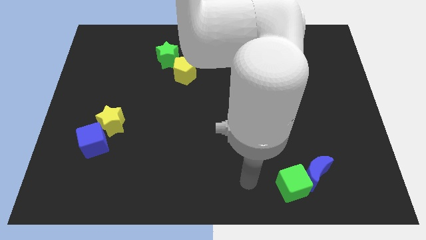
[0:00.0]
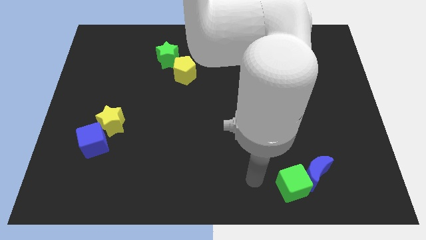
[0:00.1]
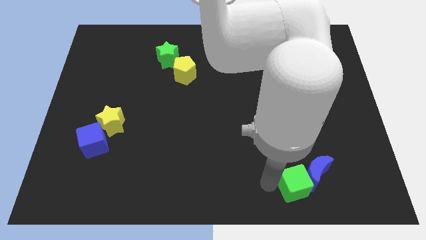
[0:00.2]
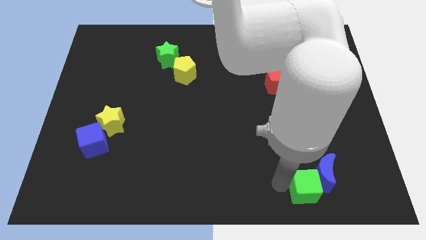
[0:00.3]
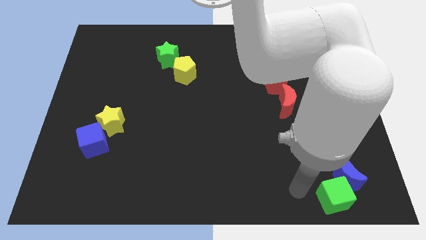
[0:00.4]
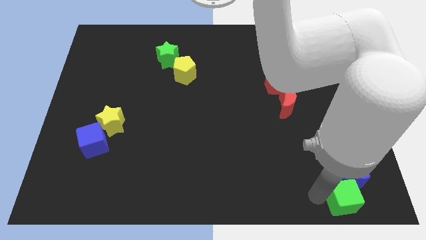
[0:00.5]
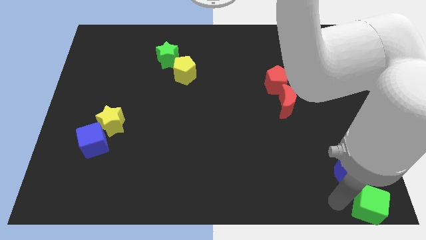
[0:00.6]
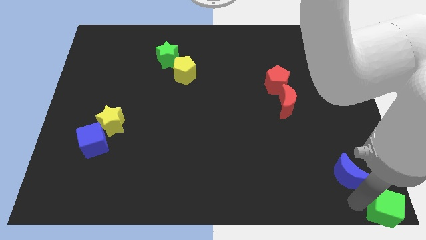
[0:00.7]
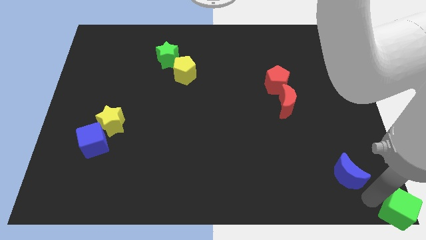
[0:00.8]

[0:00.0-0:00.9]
pull the blue moon apart from the green cube

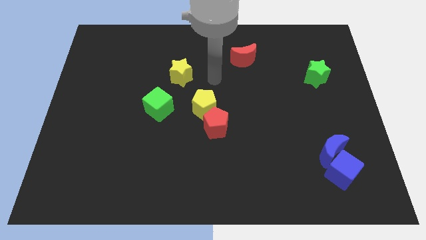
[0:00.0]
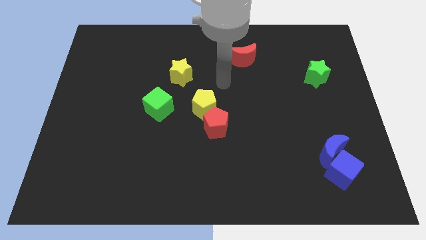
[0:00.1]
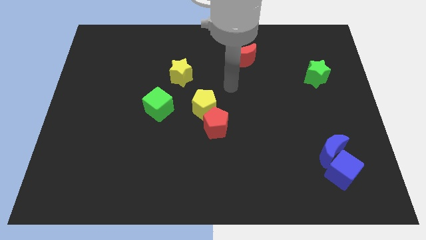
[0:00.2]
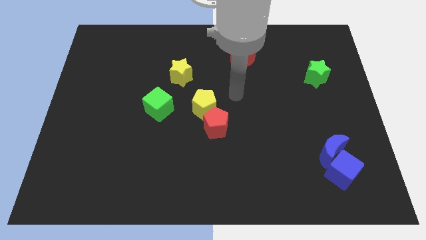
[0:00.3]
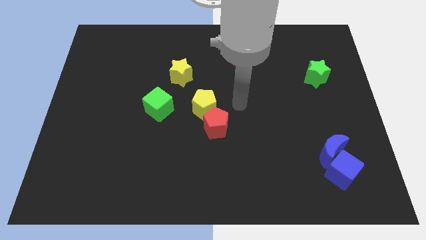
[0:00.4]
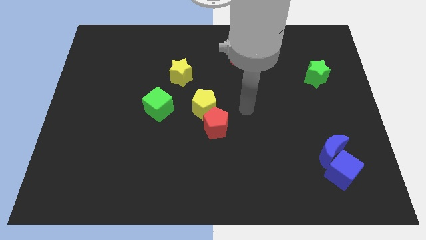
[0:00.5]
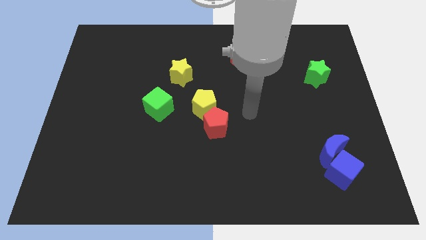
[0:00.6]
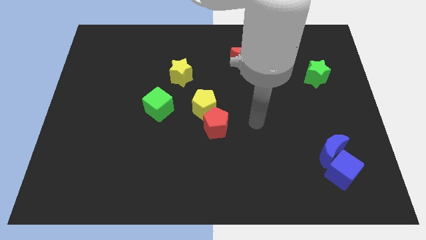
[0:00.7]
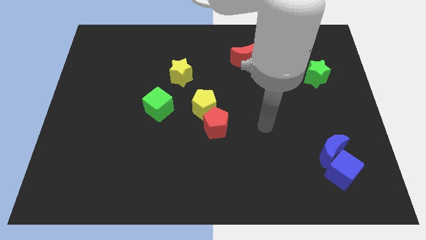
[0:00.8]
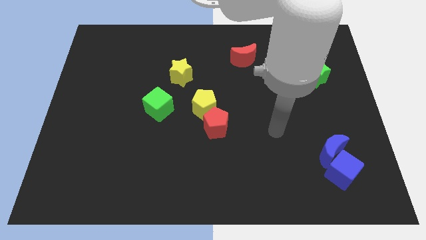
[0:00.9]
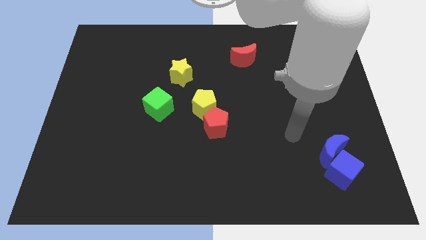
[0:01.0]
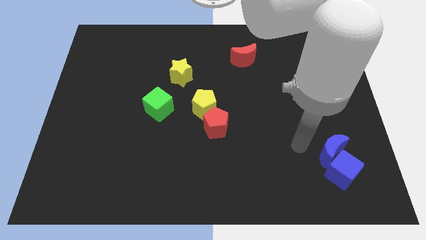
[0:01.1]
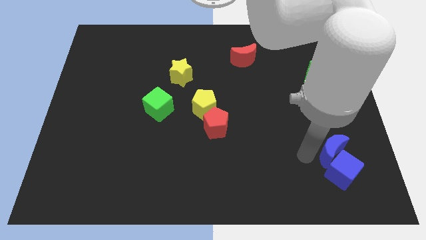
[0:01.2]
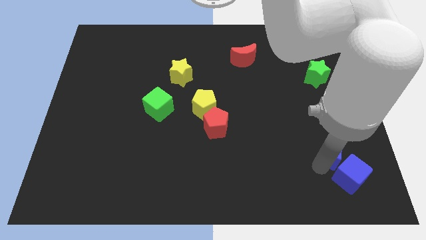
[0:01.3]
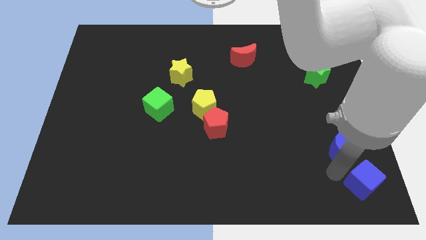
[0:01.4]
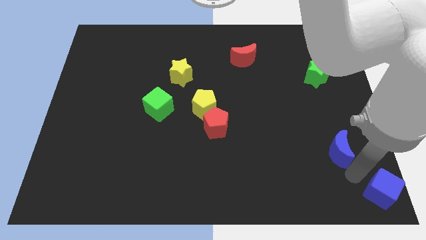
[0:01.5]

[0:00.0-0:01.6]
pull the blue moon apart from the blue cube

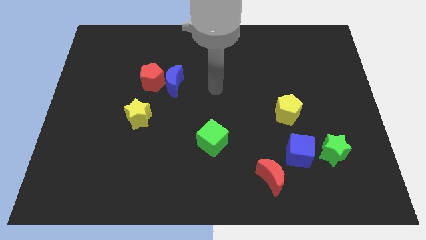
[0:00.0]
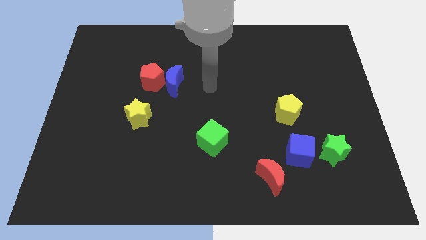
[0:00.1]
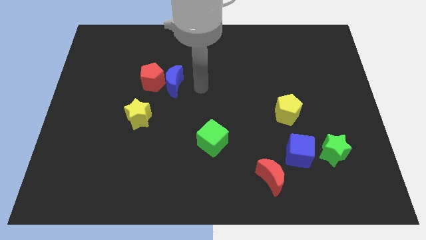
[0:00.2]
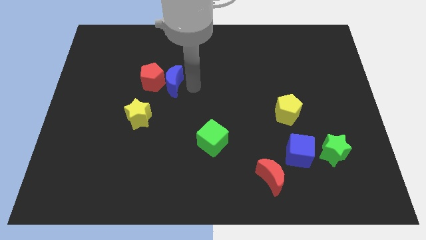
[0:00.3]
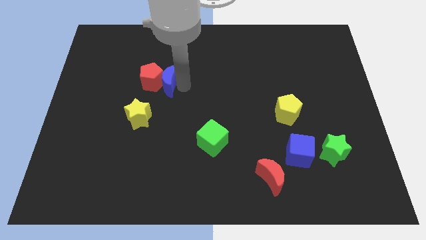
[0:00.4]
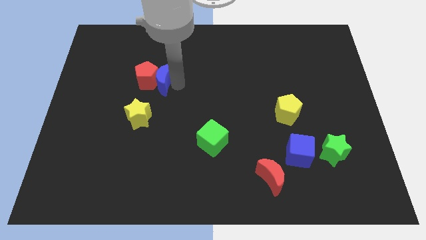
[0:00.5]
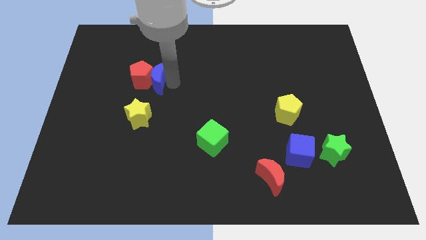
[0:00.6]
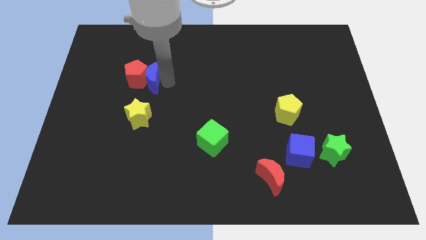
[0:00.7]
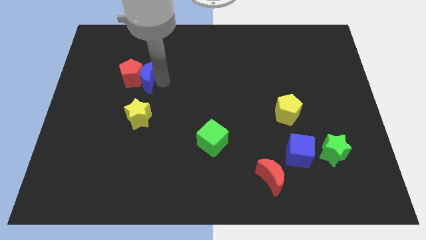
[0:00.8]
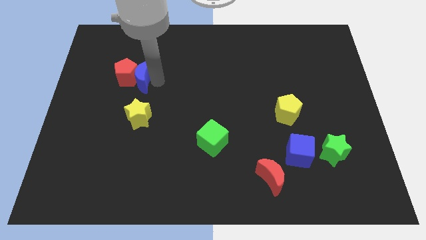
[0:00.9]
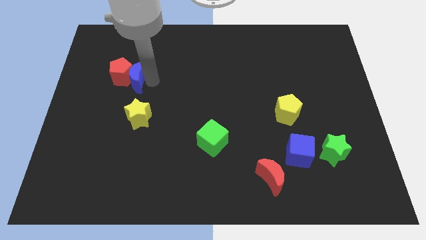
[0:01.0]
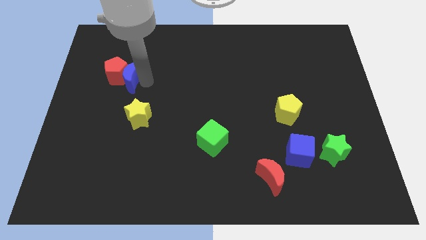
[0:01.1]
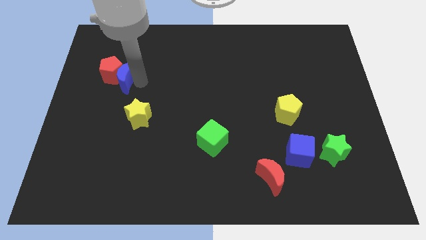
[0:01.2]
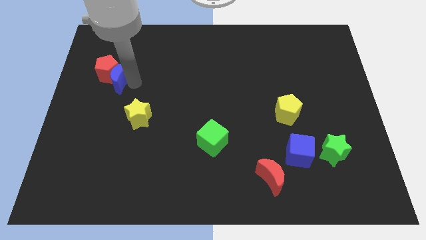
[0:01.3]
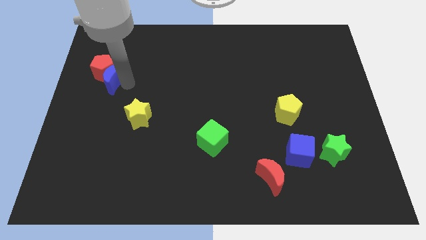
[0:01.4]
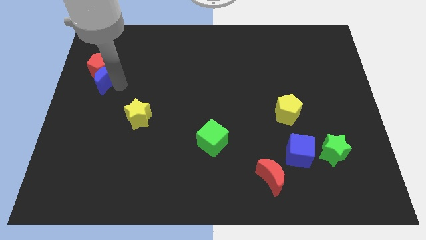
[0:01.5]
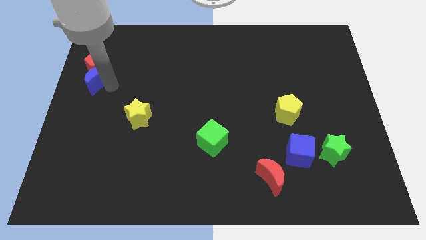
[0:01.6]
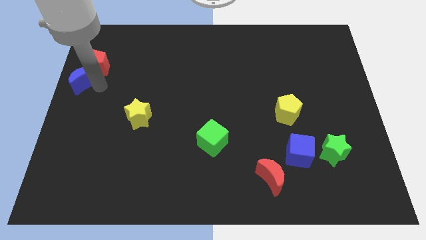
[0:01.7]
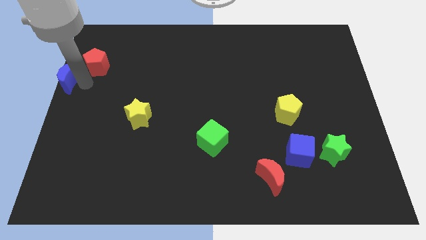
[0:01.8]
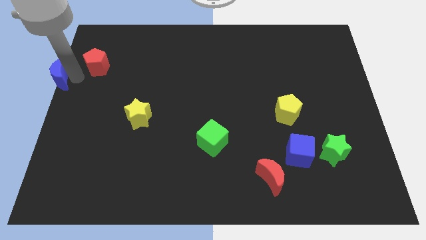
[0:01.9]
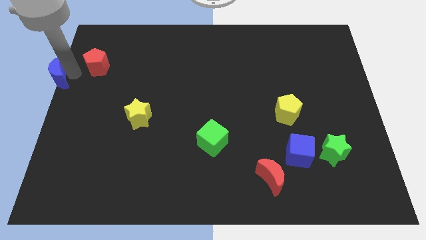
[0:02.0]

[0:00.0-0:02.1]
separate the red pentagon from the blue moon

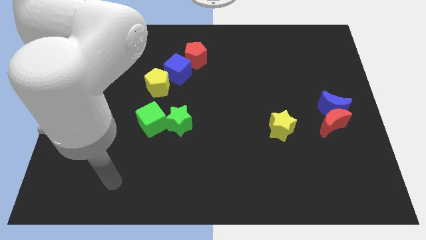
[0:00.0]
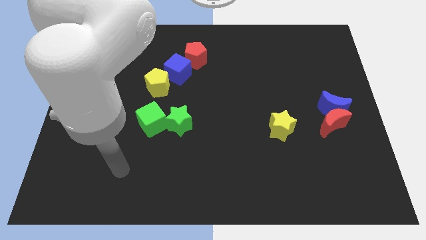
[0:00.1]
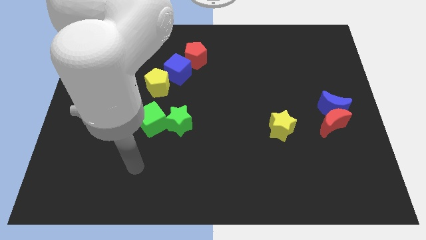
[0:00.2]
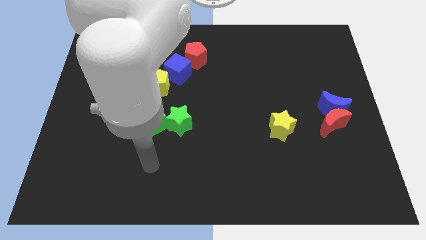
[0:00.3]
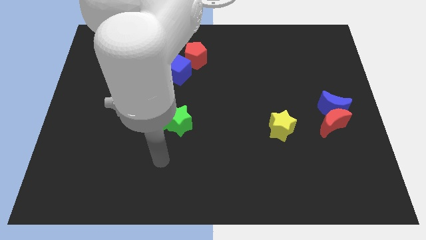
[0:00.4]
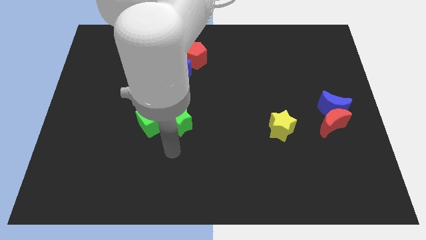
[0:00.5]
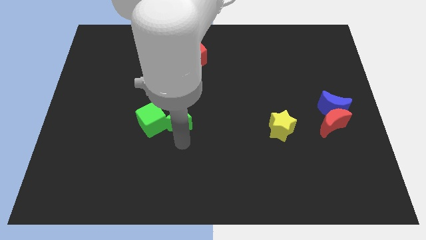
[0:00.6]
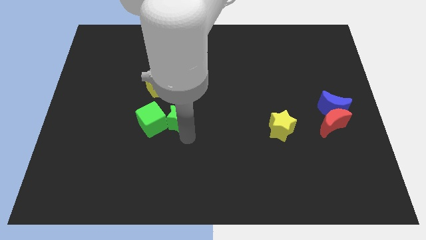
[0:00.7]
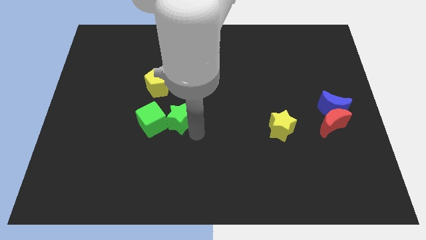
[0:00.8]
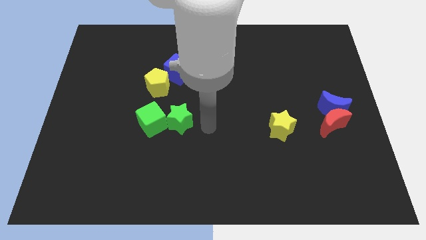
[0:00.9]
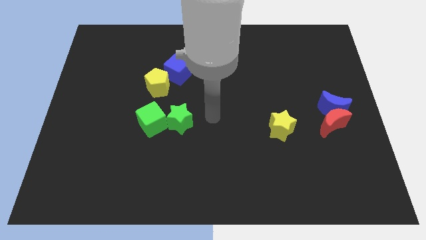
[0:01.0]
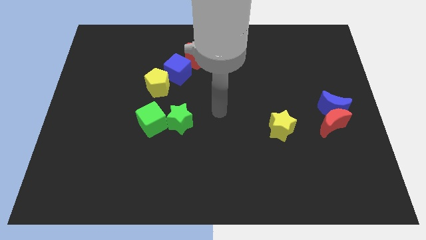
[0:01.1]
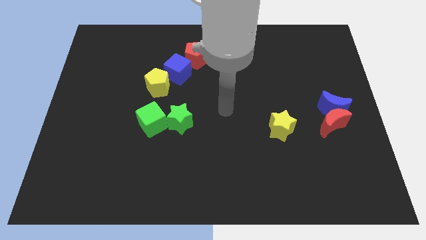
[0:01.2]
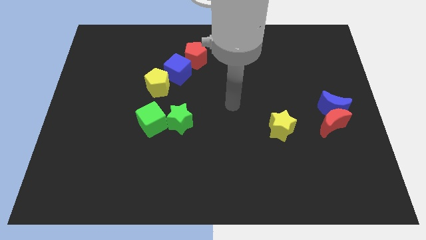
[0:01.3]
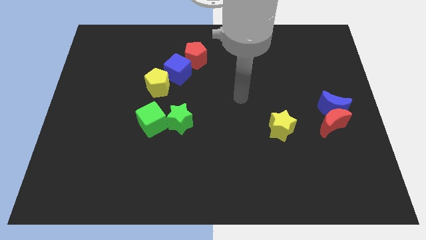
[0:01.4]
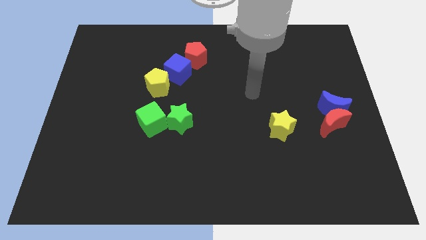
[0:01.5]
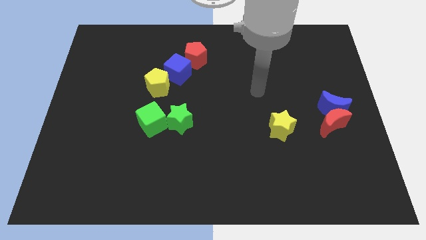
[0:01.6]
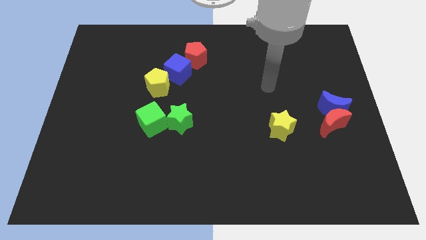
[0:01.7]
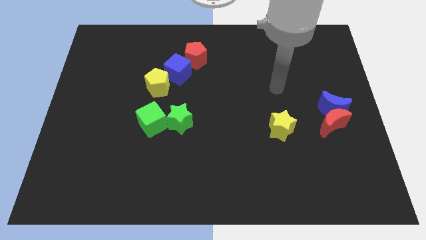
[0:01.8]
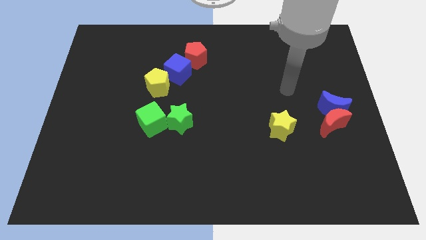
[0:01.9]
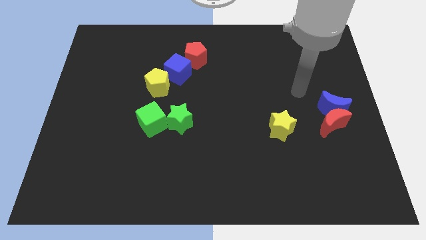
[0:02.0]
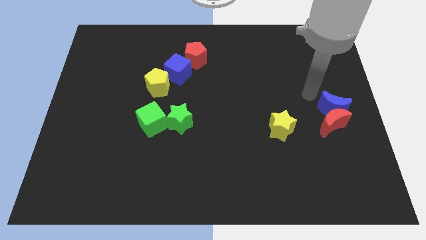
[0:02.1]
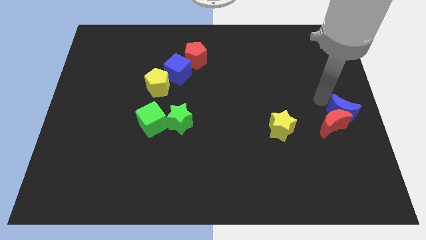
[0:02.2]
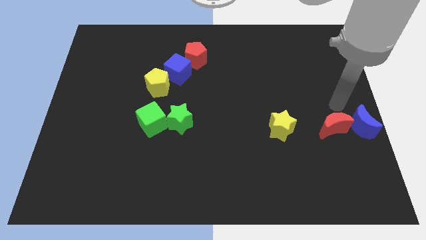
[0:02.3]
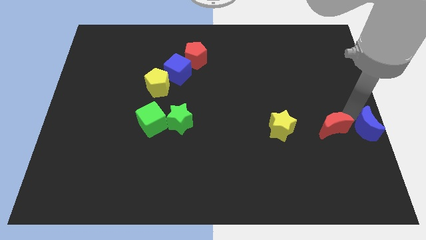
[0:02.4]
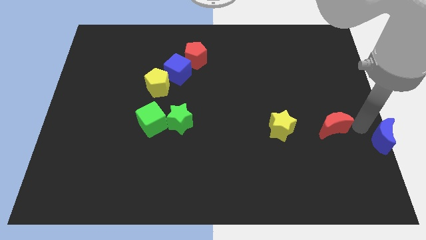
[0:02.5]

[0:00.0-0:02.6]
separate the red moon from the blue moon

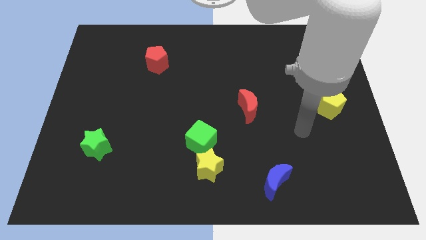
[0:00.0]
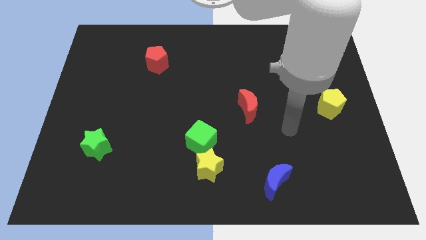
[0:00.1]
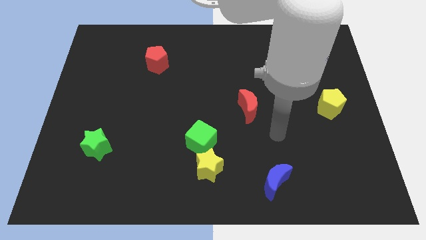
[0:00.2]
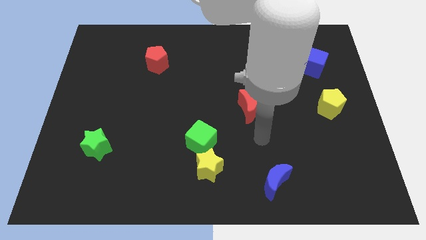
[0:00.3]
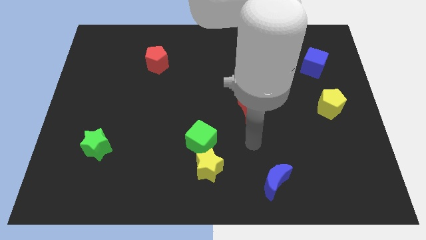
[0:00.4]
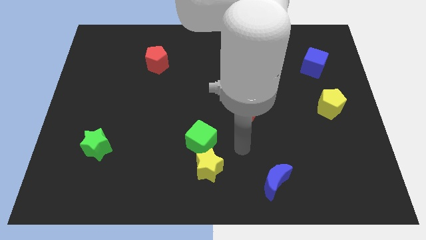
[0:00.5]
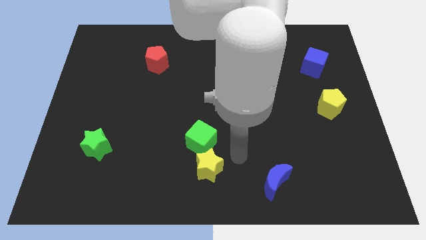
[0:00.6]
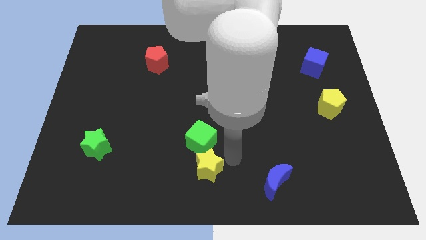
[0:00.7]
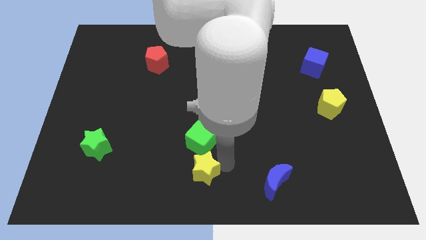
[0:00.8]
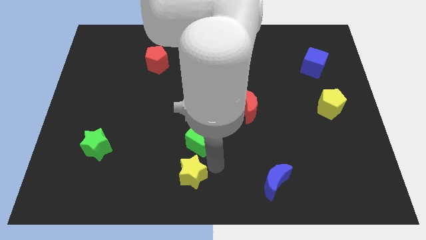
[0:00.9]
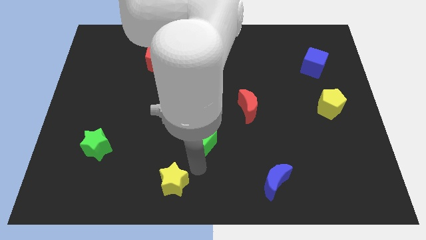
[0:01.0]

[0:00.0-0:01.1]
separate the green cube from the yellow star

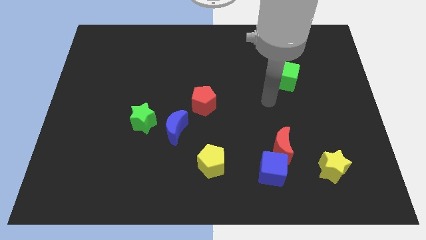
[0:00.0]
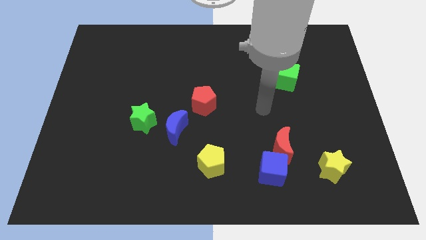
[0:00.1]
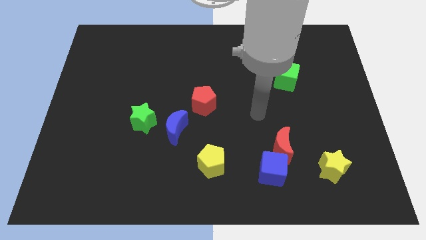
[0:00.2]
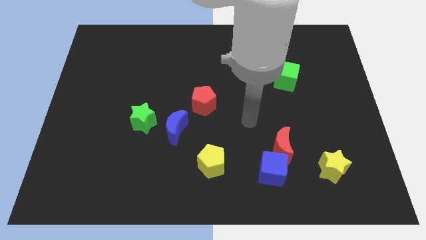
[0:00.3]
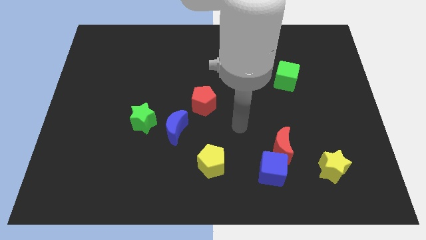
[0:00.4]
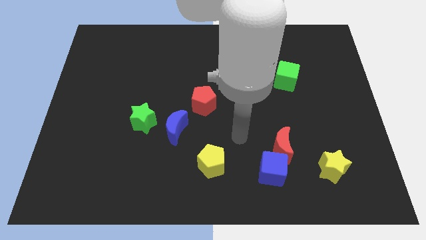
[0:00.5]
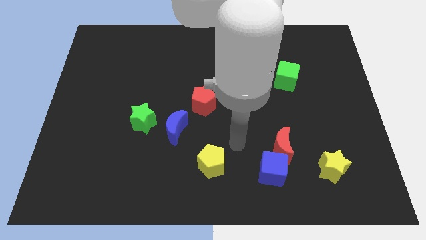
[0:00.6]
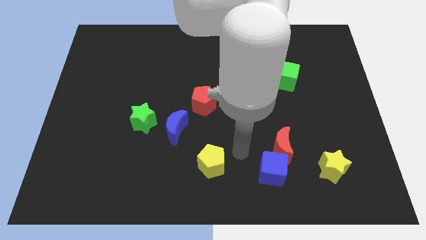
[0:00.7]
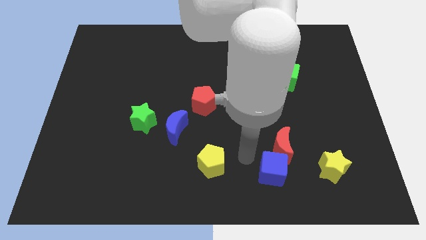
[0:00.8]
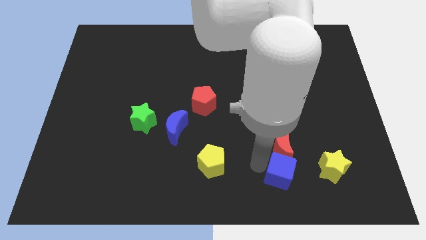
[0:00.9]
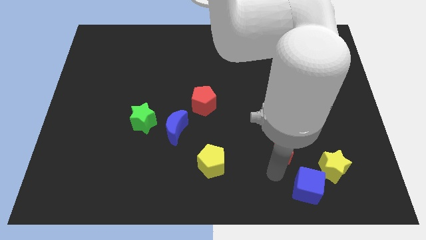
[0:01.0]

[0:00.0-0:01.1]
separate the red moon from the blue cube
